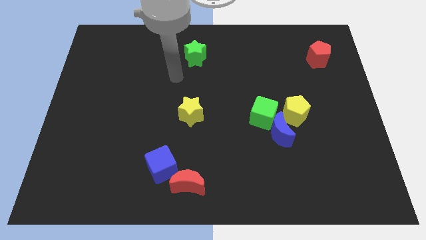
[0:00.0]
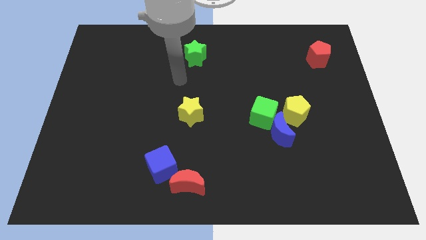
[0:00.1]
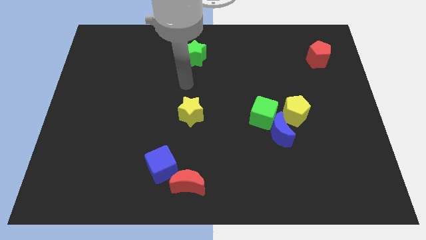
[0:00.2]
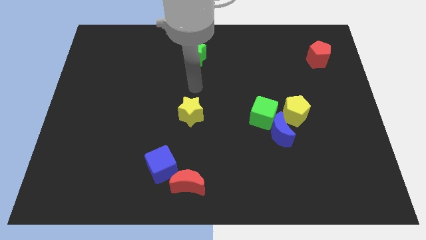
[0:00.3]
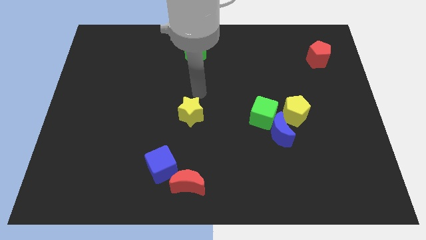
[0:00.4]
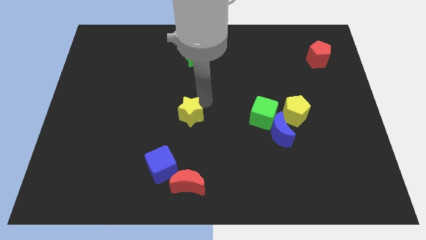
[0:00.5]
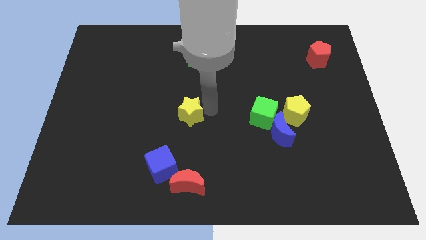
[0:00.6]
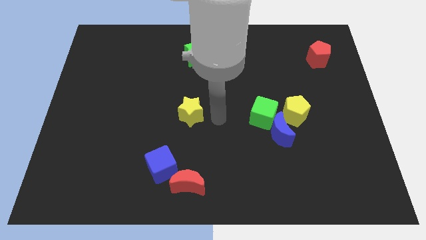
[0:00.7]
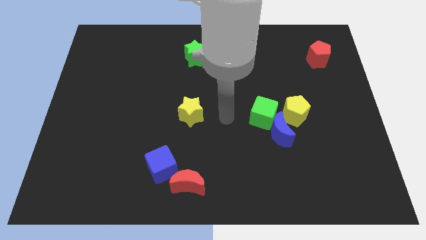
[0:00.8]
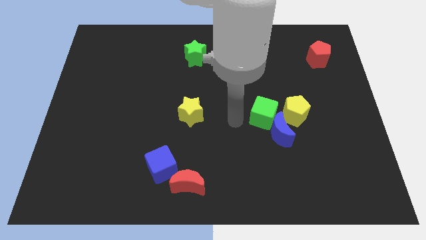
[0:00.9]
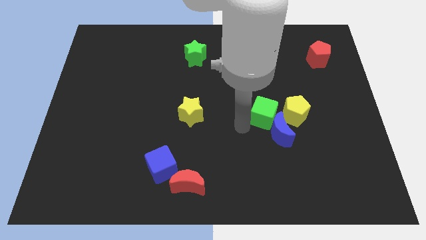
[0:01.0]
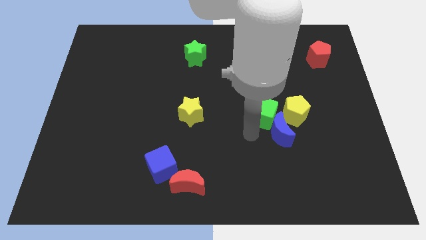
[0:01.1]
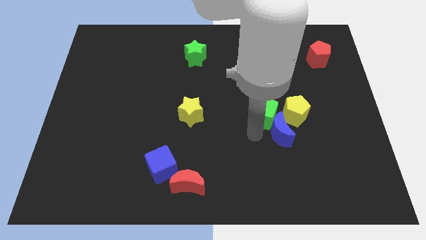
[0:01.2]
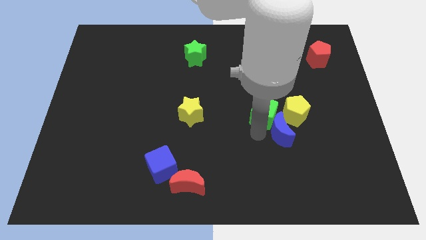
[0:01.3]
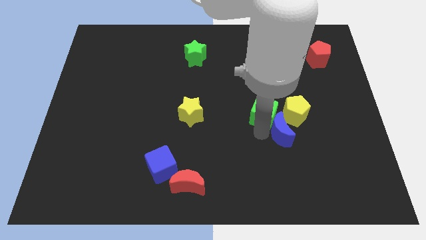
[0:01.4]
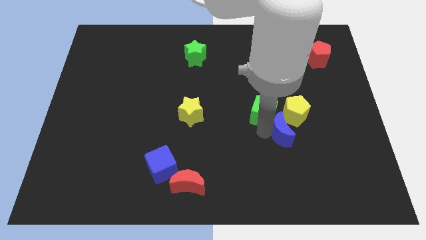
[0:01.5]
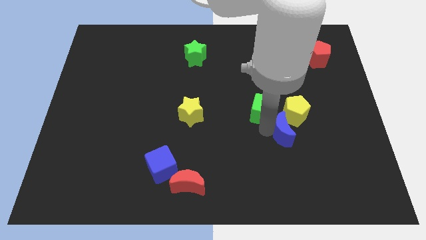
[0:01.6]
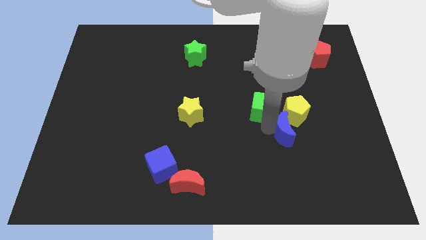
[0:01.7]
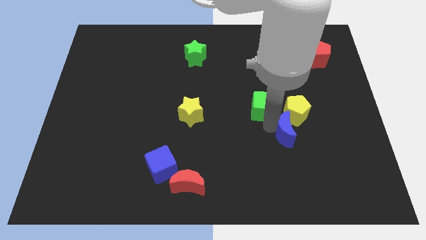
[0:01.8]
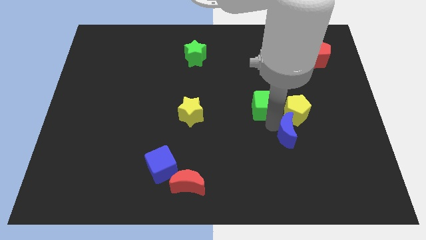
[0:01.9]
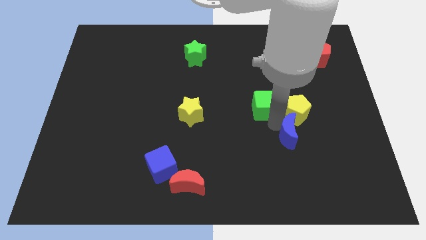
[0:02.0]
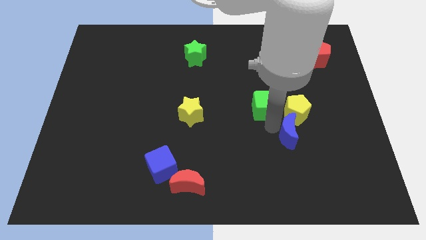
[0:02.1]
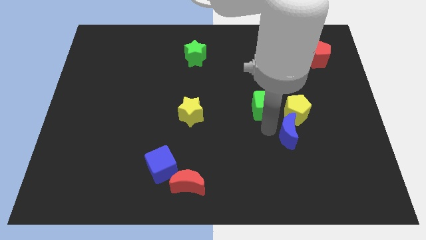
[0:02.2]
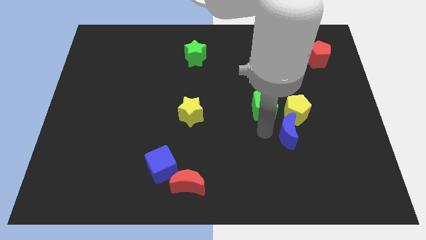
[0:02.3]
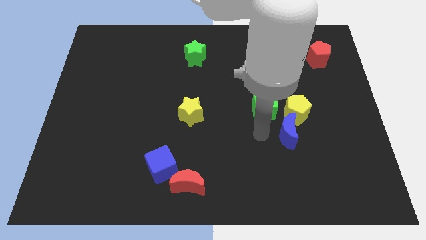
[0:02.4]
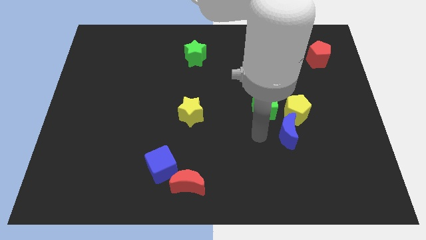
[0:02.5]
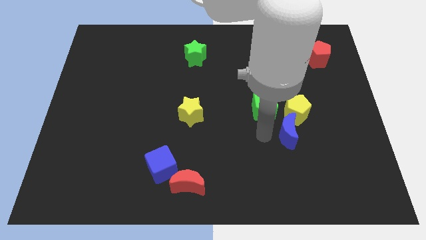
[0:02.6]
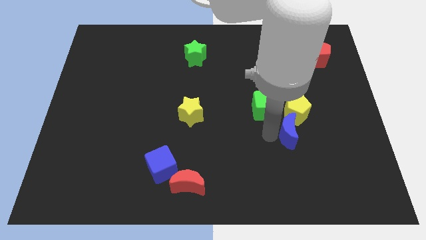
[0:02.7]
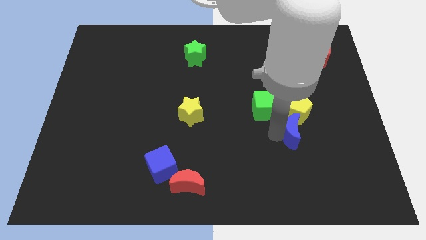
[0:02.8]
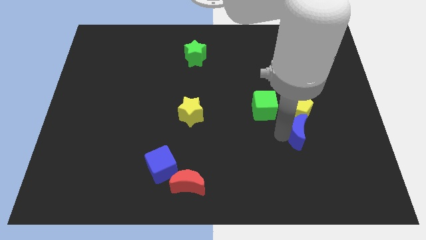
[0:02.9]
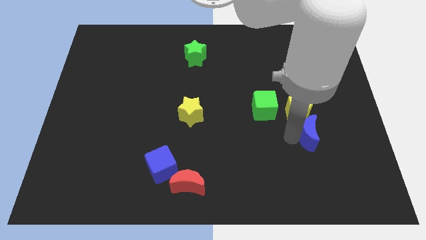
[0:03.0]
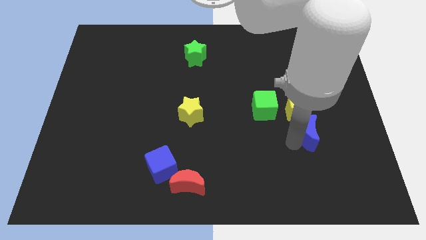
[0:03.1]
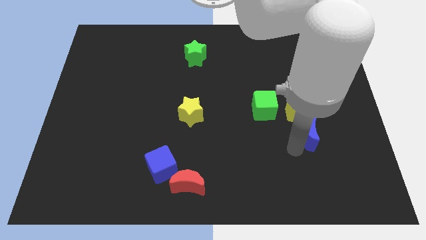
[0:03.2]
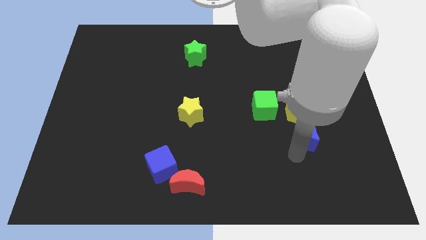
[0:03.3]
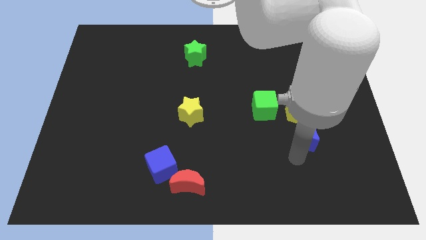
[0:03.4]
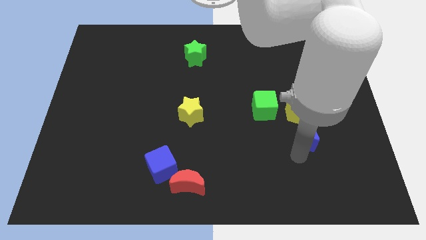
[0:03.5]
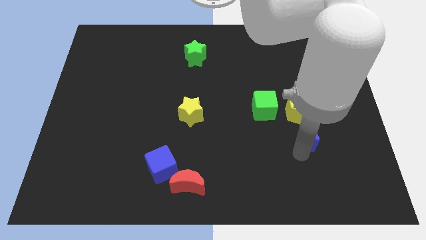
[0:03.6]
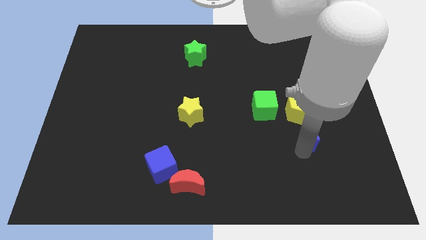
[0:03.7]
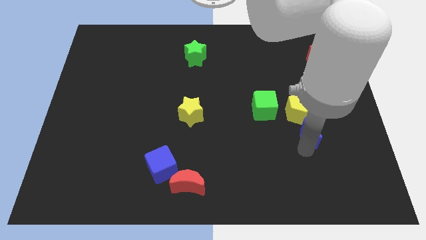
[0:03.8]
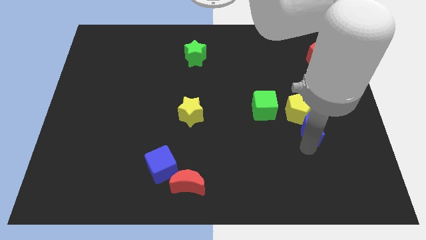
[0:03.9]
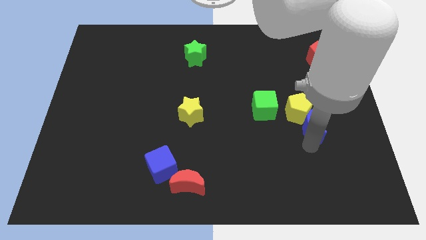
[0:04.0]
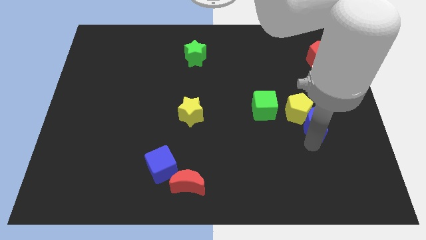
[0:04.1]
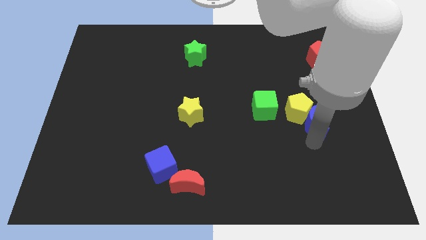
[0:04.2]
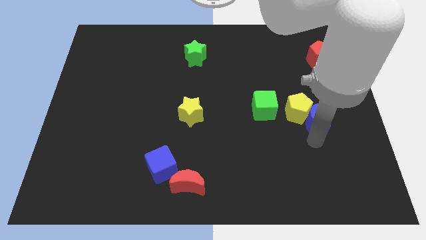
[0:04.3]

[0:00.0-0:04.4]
slightly slide the blue moon upwards and to the right

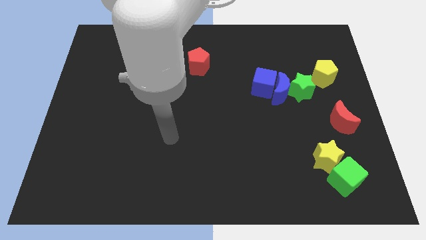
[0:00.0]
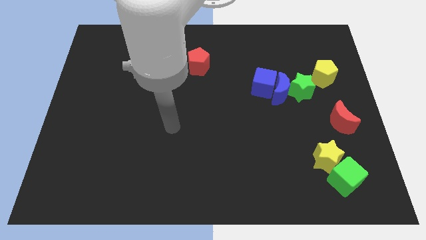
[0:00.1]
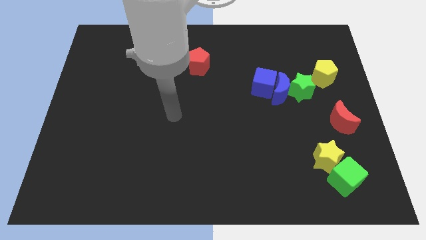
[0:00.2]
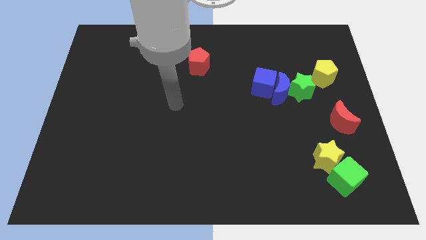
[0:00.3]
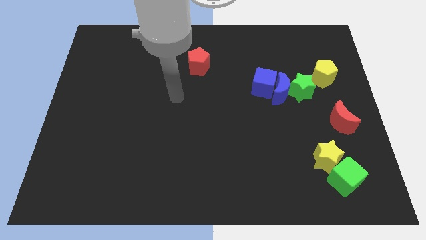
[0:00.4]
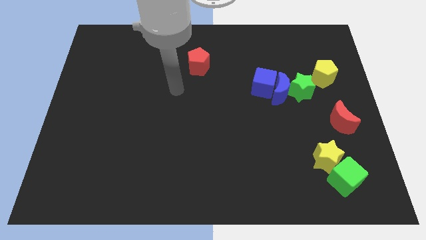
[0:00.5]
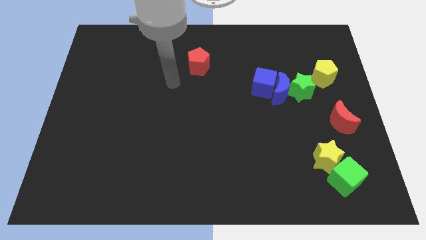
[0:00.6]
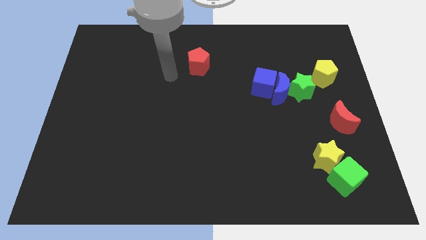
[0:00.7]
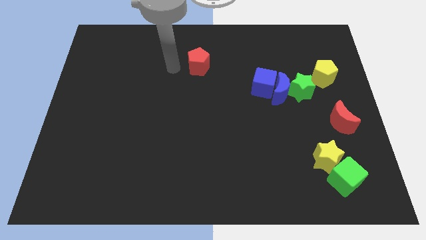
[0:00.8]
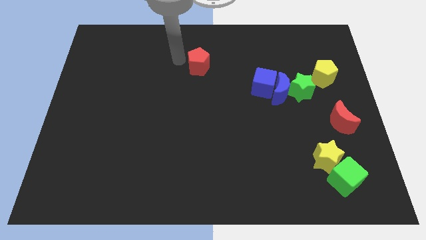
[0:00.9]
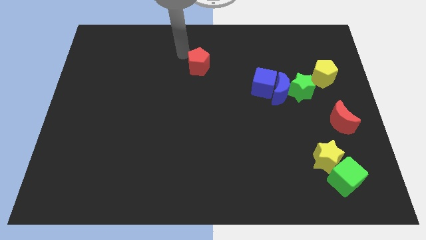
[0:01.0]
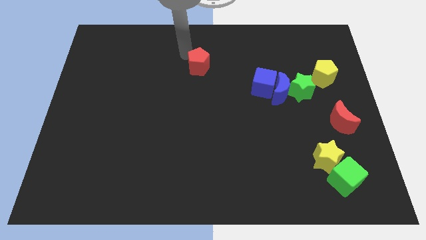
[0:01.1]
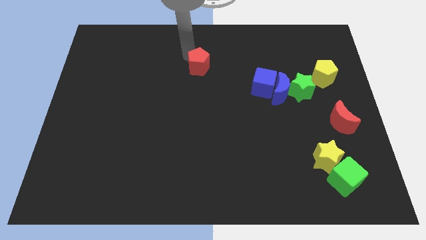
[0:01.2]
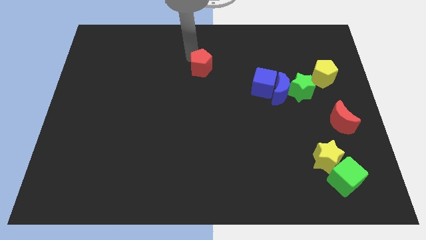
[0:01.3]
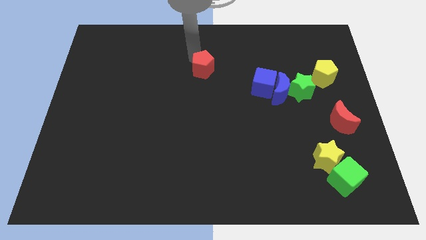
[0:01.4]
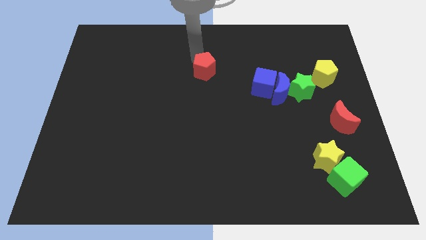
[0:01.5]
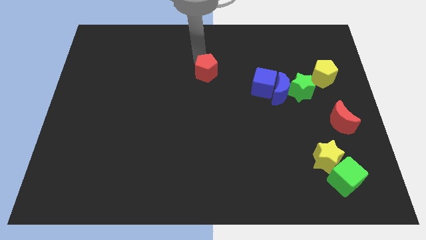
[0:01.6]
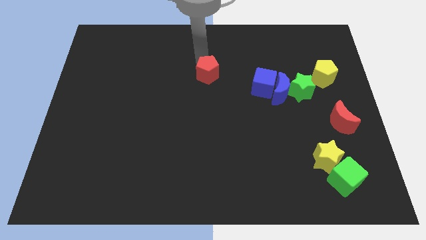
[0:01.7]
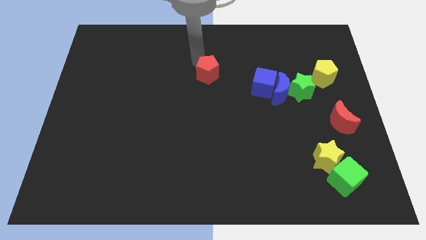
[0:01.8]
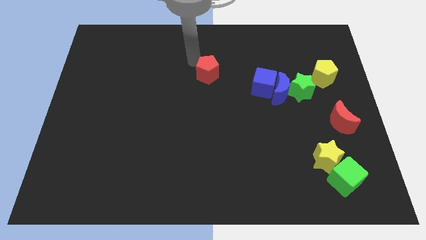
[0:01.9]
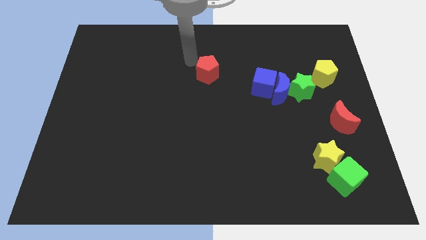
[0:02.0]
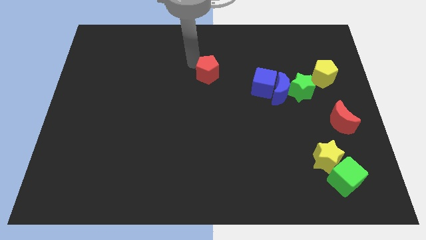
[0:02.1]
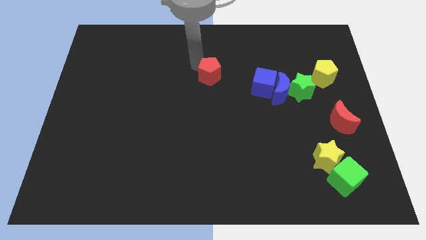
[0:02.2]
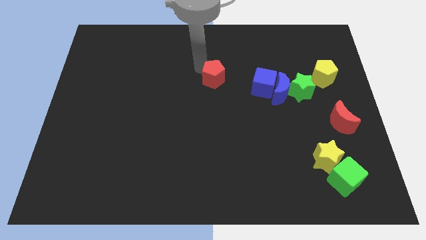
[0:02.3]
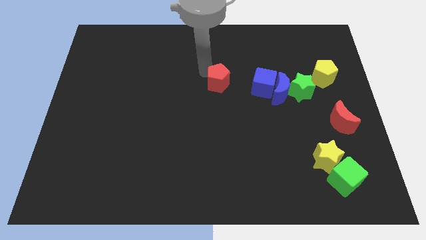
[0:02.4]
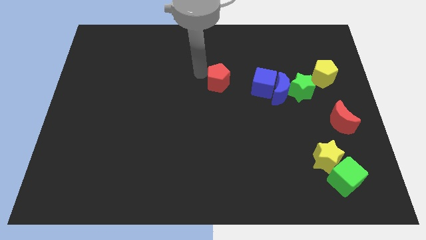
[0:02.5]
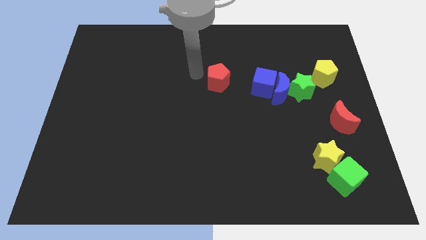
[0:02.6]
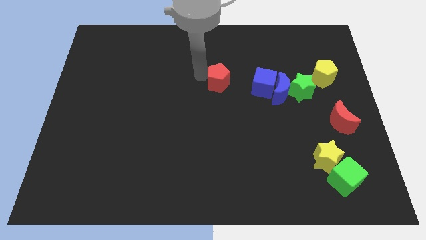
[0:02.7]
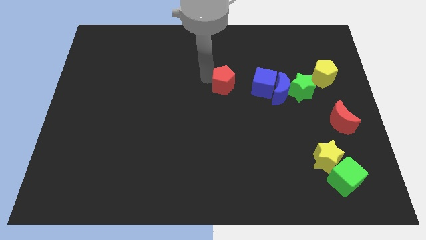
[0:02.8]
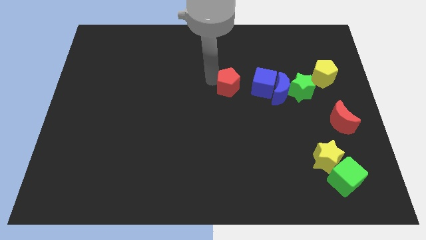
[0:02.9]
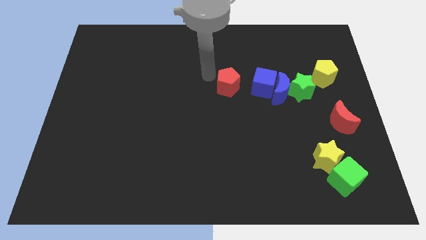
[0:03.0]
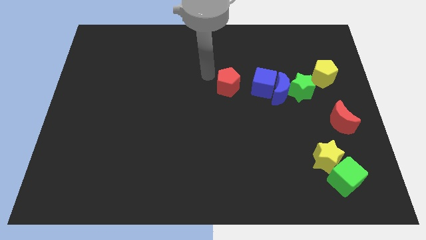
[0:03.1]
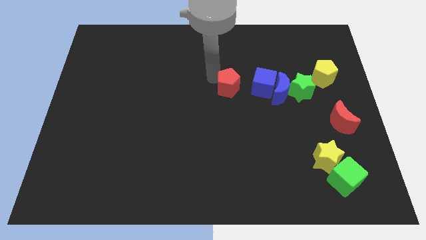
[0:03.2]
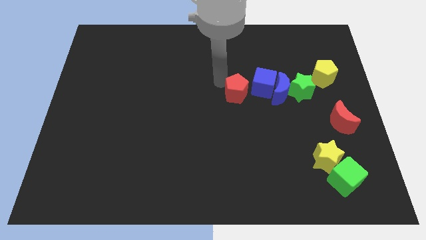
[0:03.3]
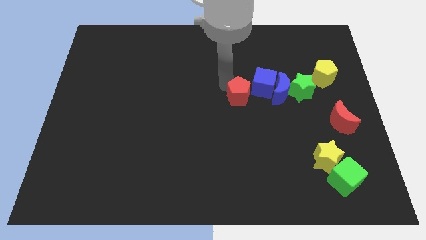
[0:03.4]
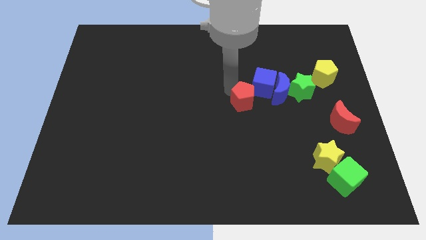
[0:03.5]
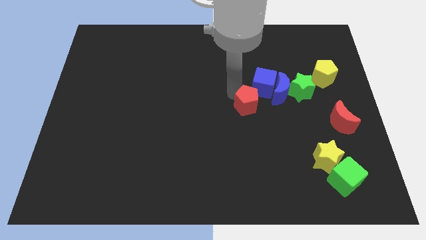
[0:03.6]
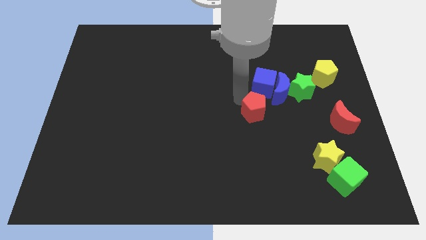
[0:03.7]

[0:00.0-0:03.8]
push the red pentagon down and then right
